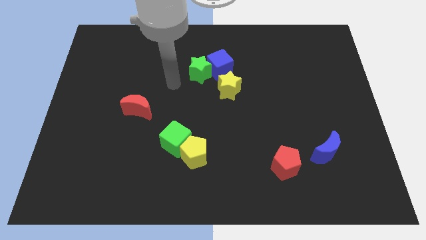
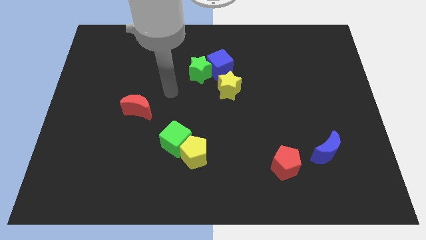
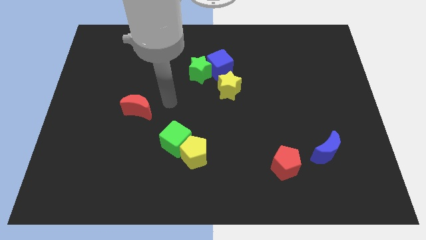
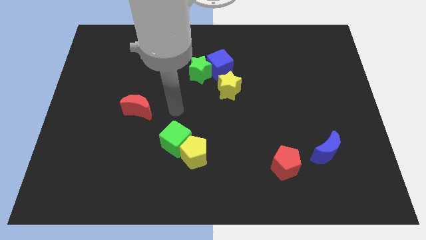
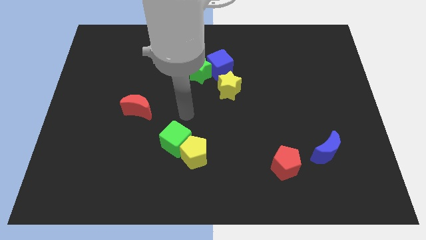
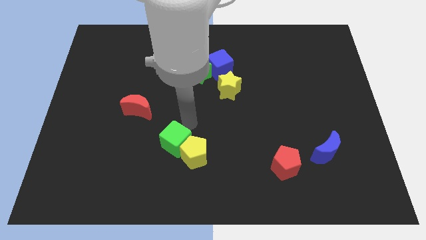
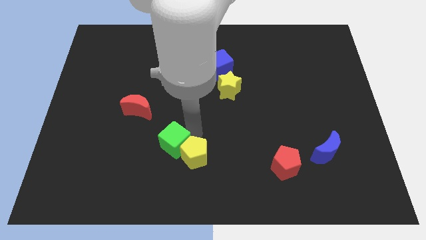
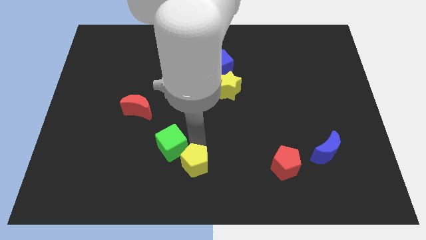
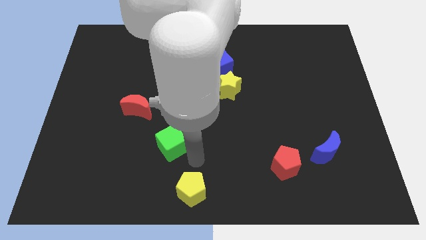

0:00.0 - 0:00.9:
move the green cube away from the yellow pentagon

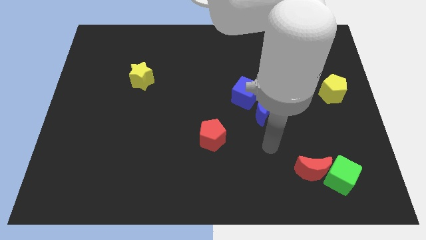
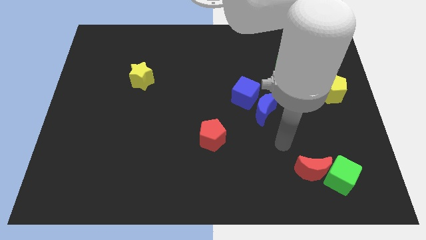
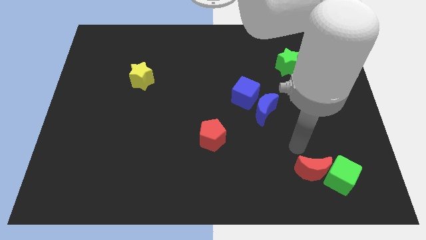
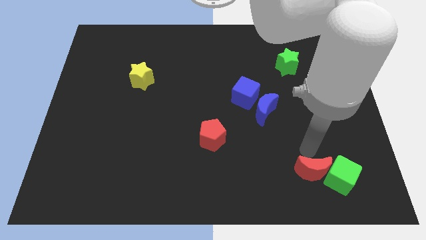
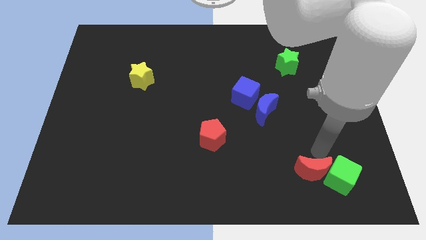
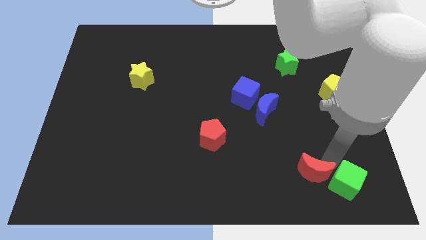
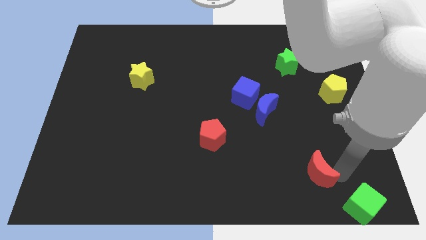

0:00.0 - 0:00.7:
separate the red moon from the green cube

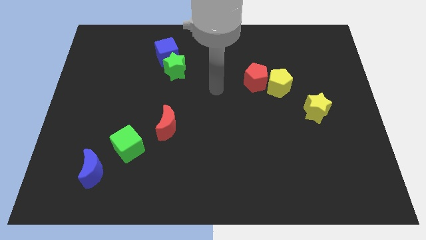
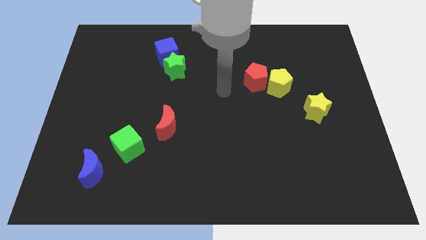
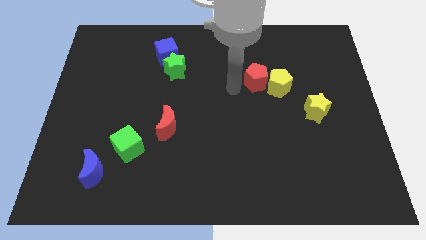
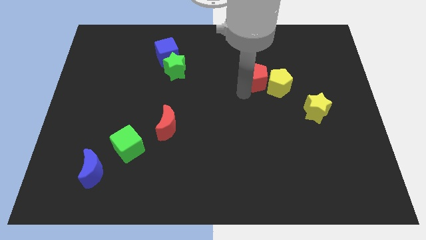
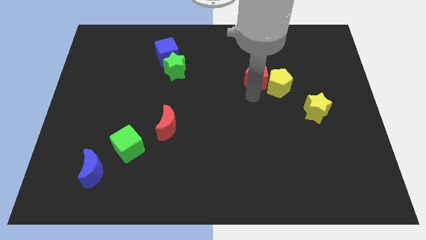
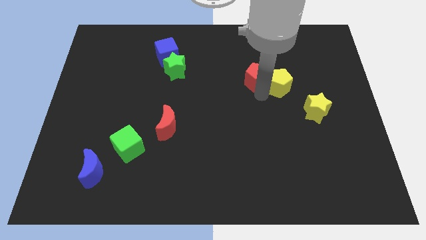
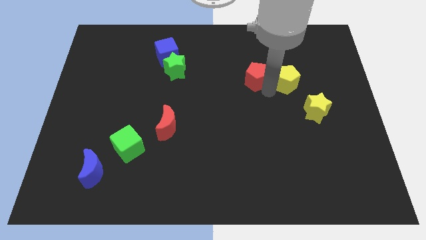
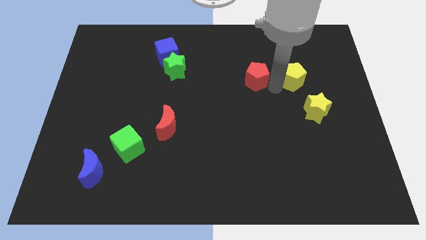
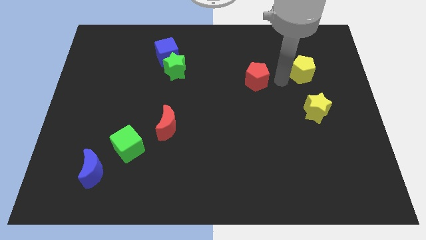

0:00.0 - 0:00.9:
move the red pentagon away from the yellow pentagon

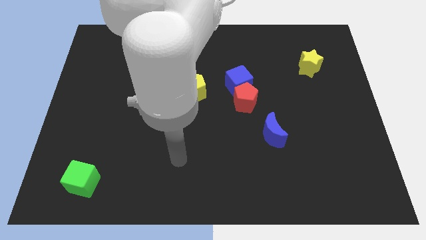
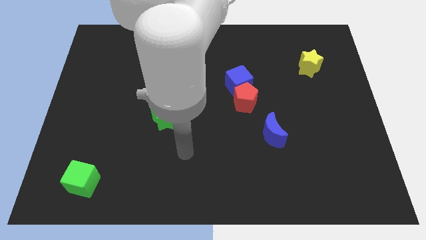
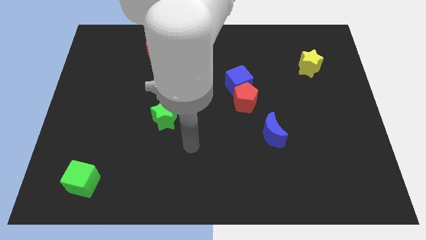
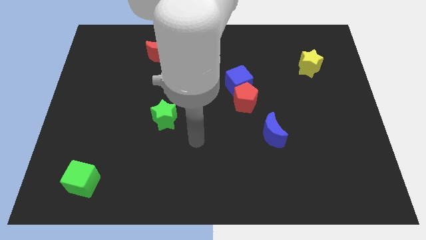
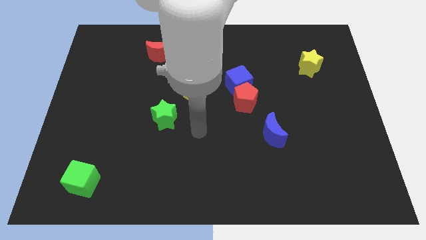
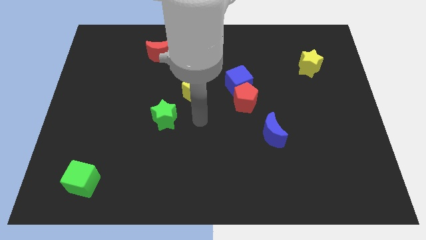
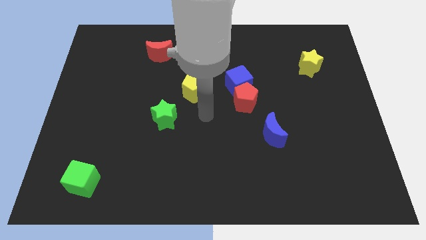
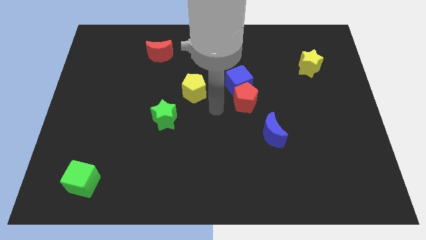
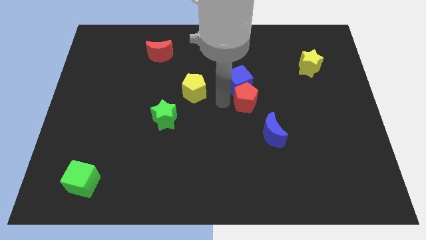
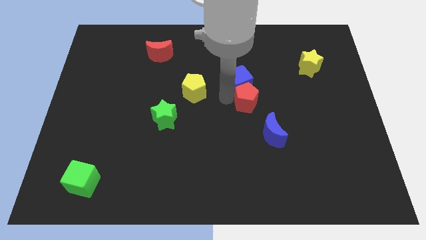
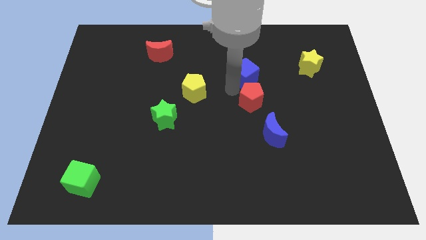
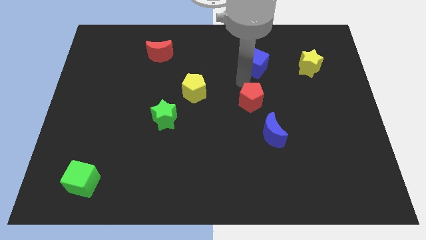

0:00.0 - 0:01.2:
pull the red pentagon apart from the blue cube

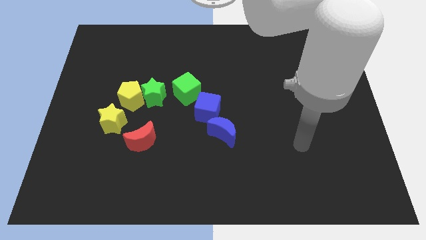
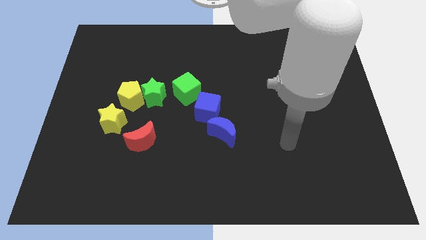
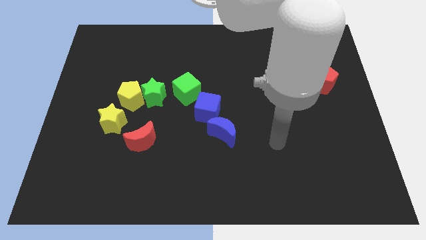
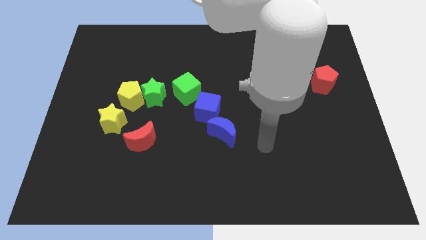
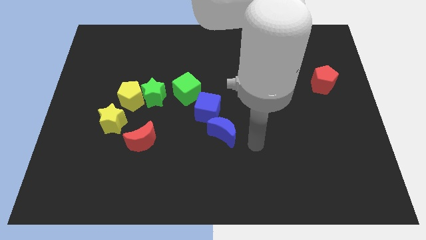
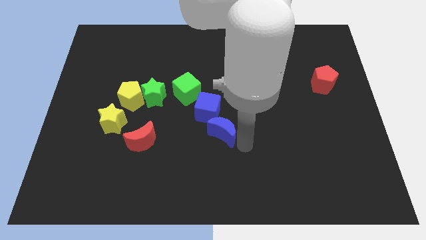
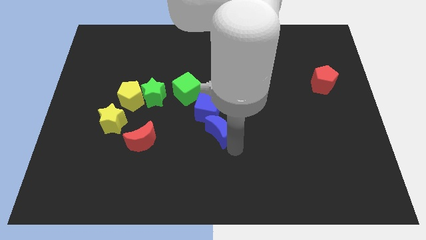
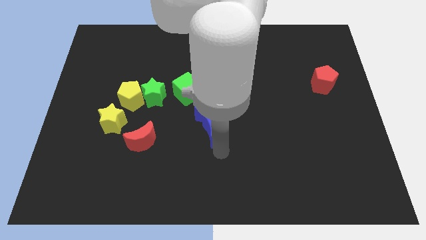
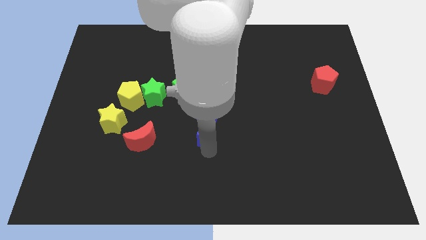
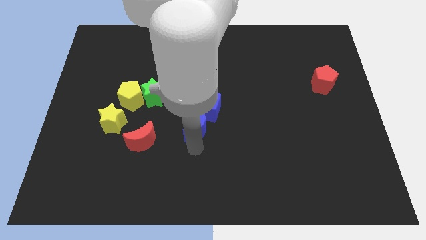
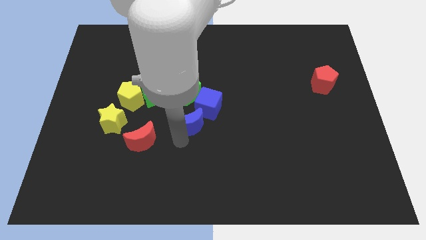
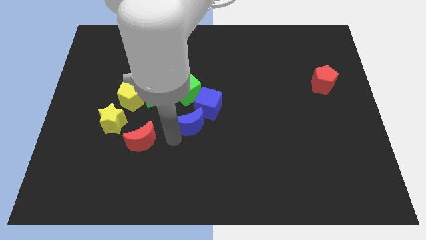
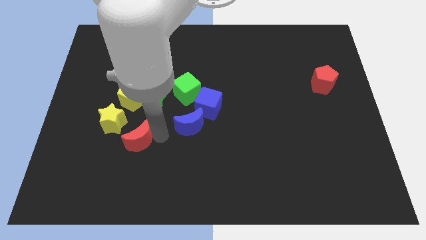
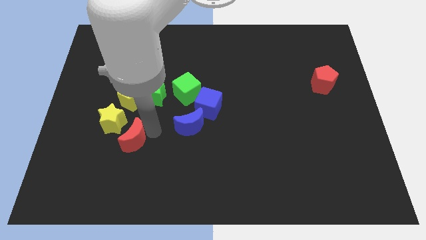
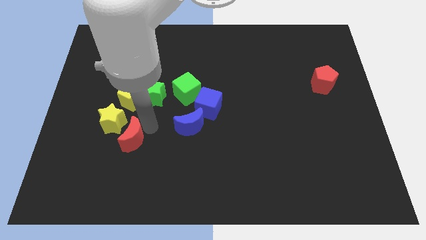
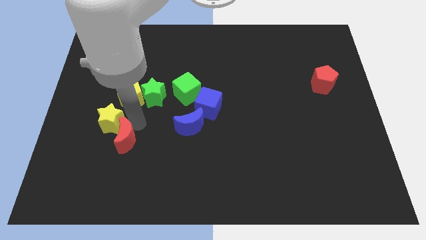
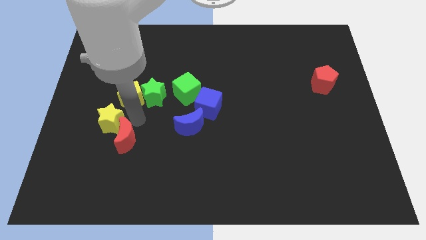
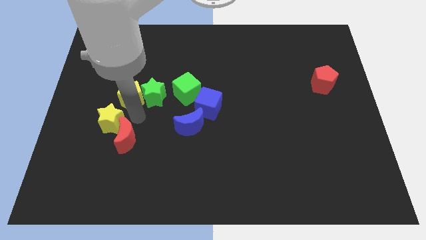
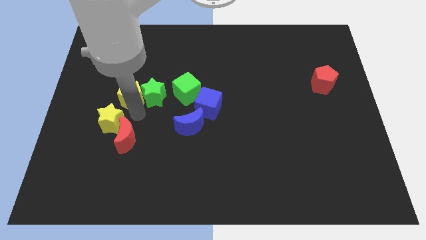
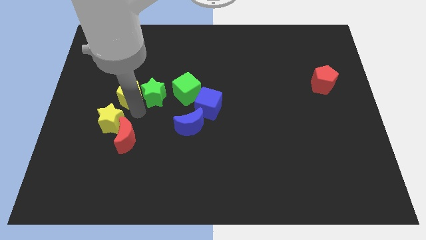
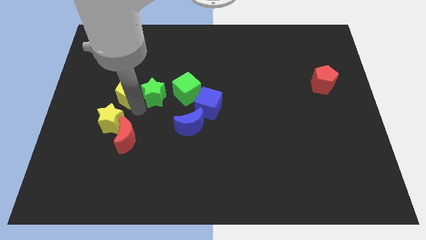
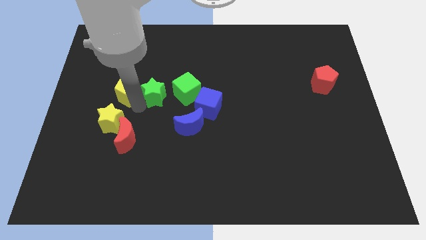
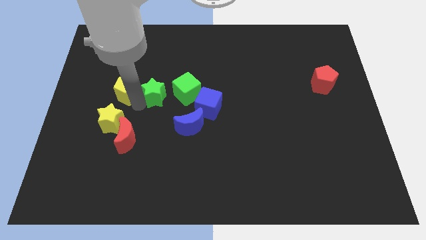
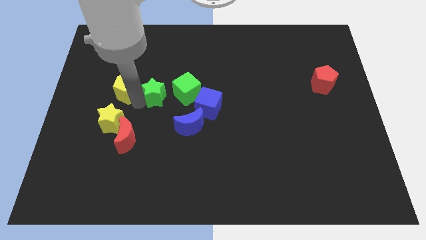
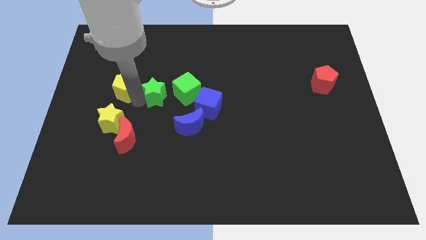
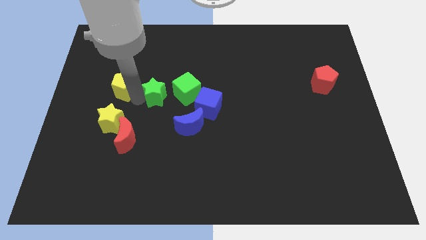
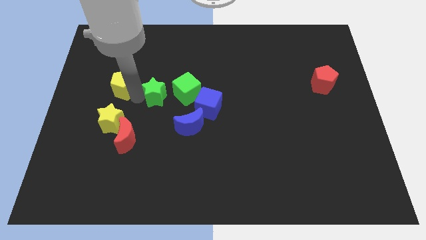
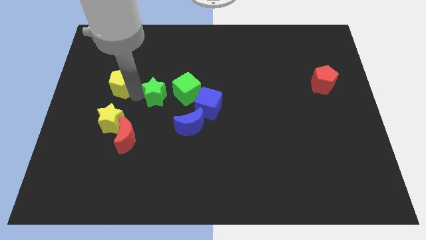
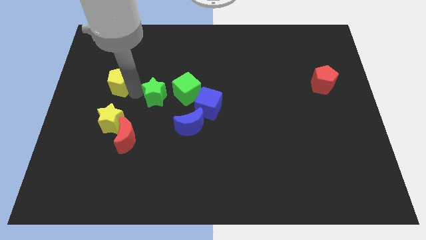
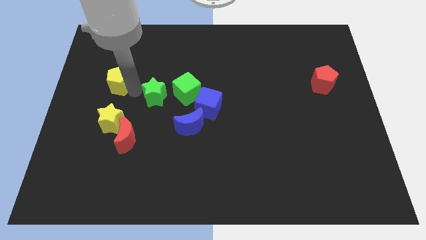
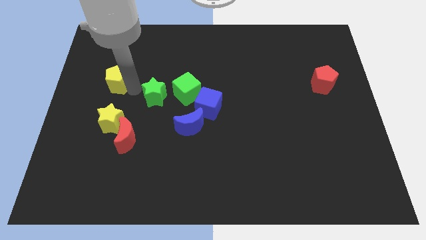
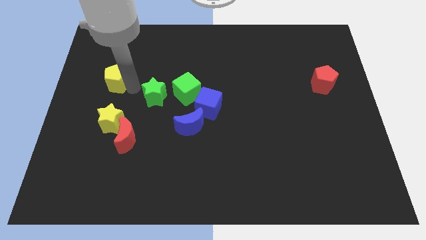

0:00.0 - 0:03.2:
separate the yellow pentagon from the green star and yellow star

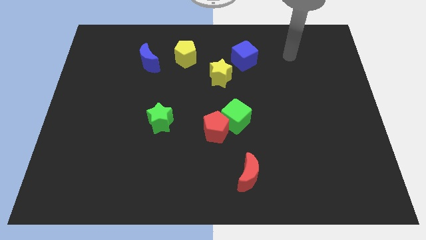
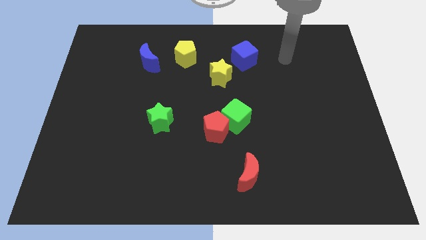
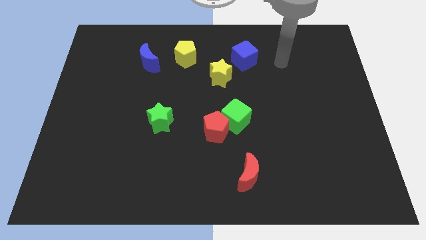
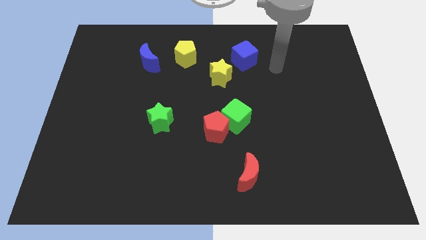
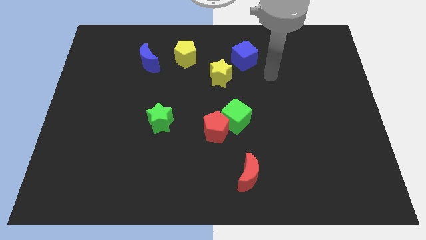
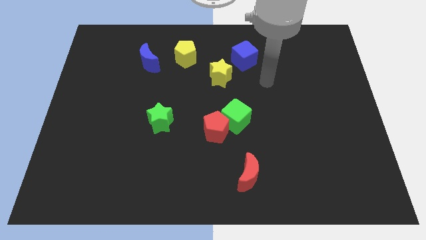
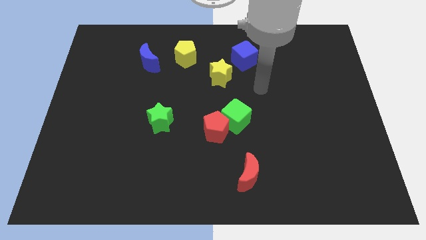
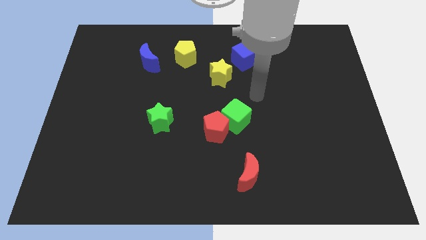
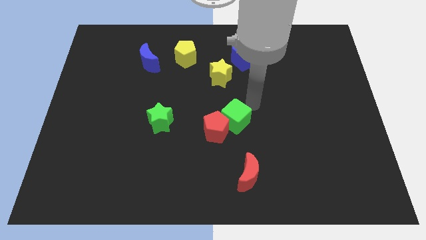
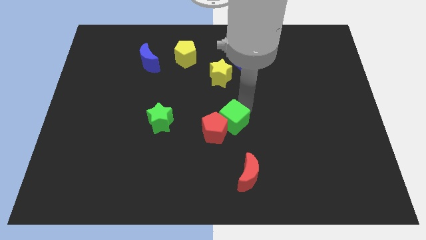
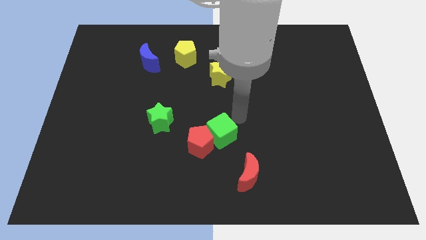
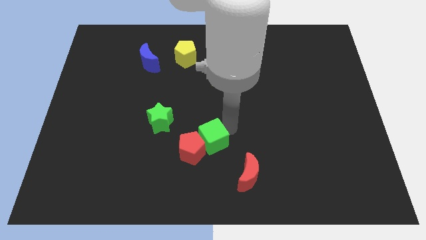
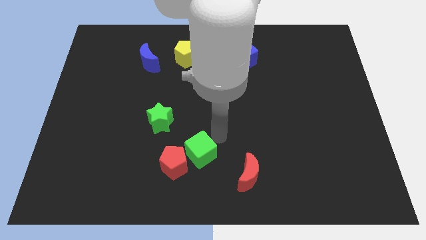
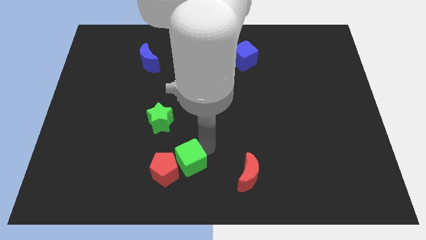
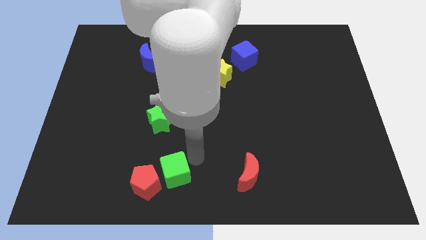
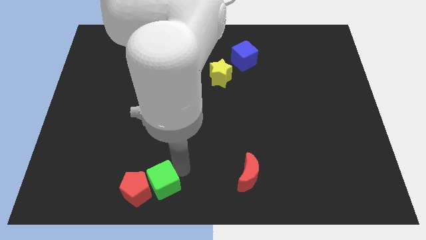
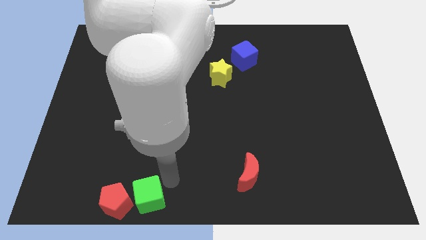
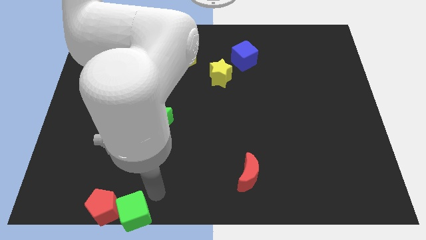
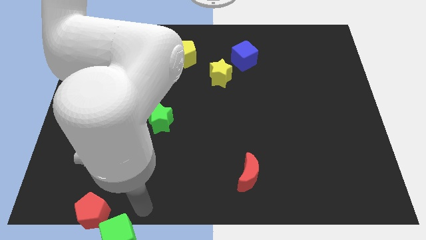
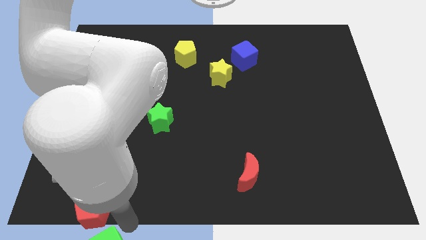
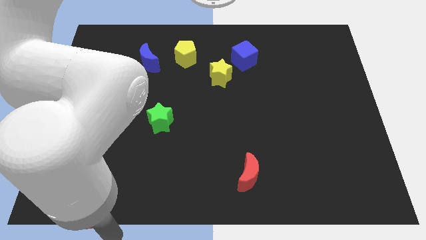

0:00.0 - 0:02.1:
separate the red pentagon from the green cube

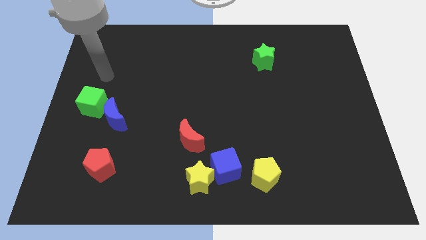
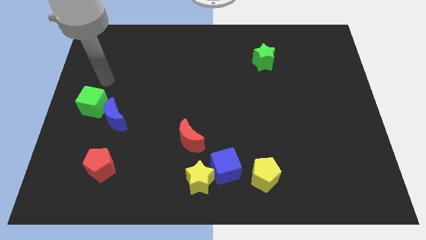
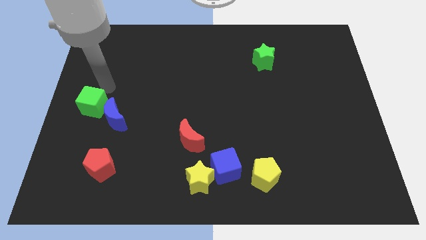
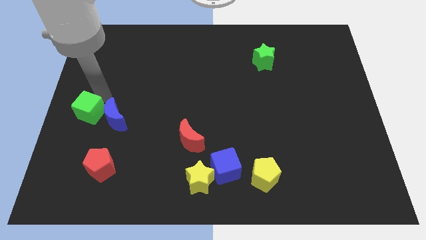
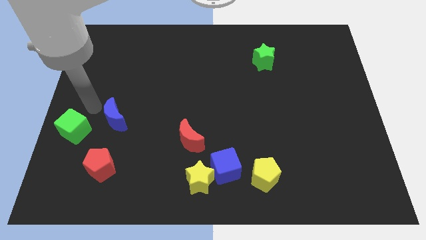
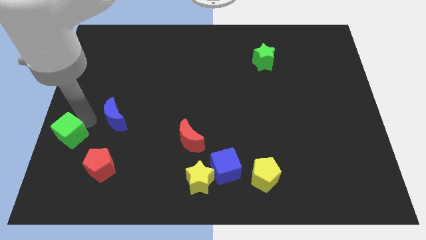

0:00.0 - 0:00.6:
separate the blue moon from the green cube
